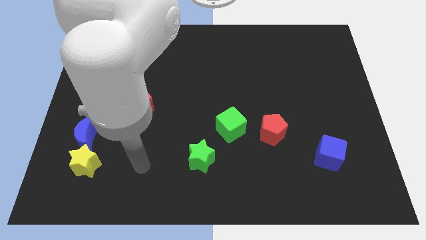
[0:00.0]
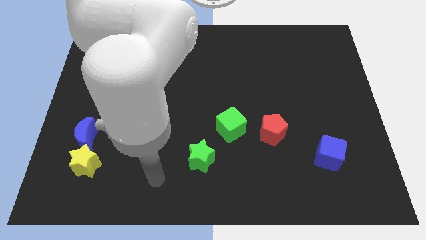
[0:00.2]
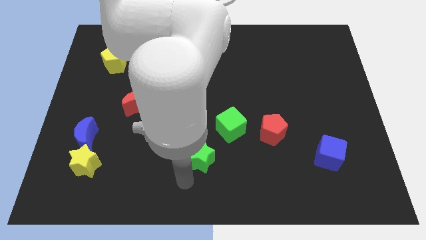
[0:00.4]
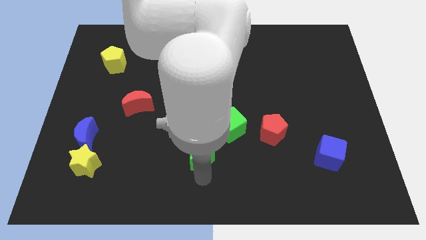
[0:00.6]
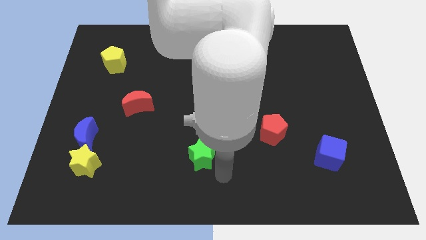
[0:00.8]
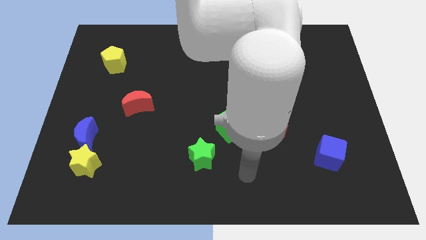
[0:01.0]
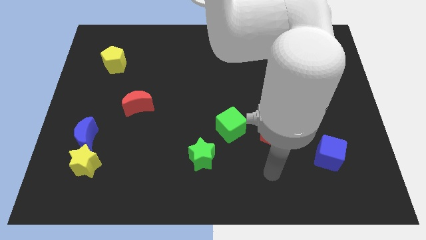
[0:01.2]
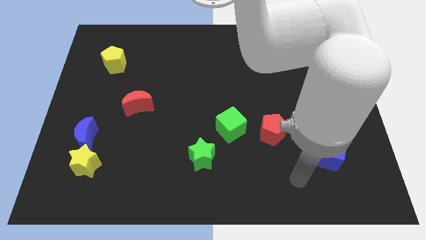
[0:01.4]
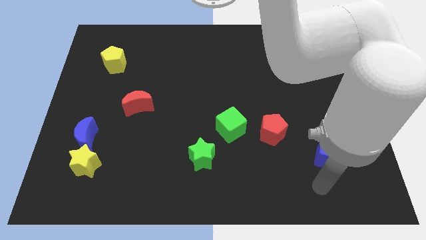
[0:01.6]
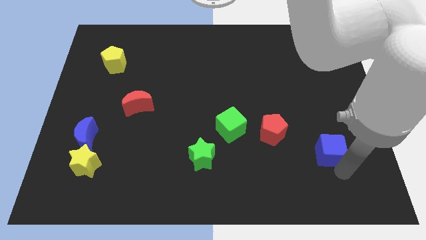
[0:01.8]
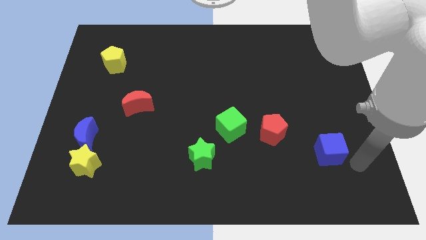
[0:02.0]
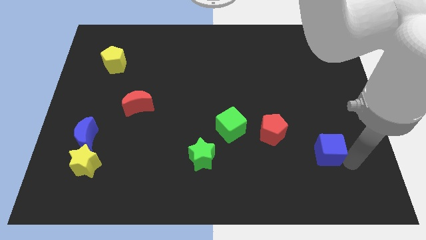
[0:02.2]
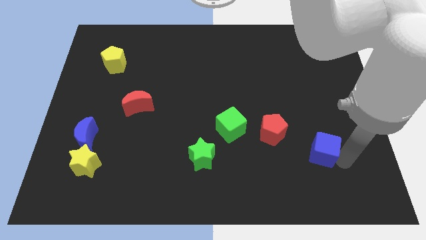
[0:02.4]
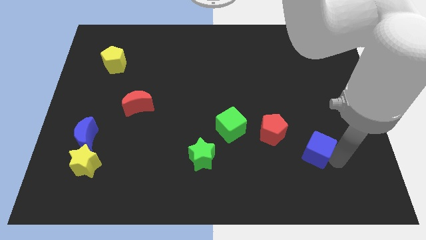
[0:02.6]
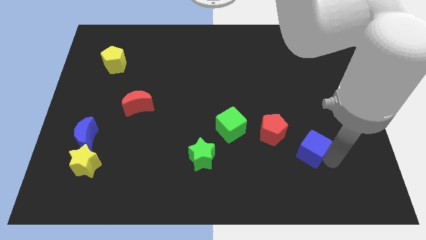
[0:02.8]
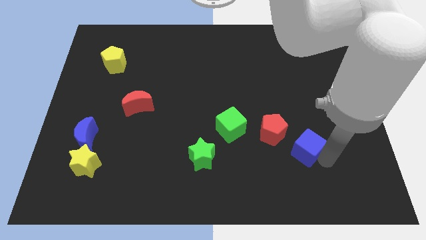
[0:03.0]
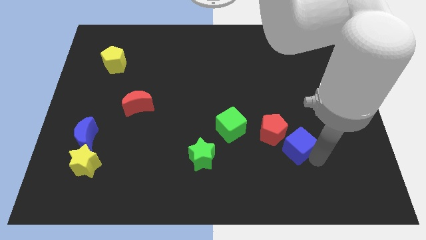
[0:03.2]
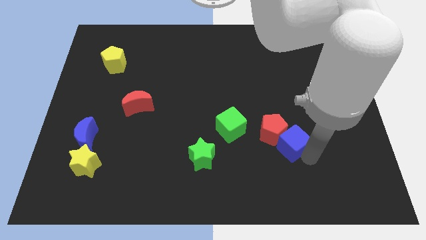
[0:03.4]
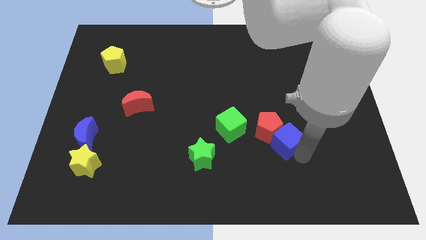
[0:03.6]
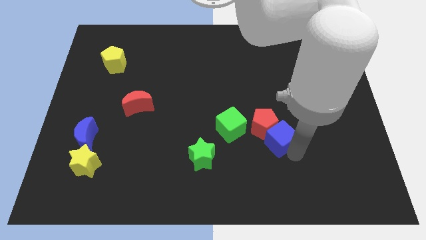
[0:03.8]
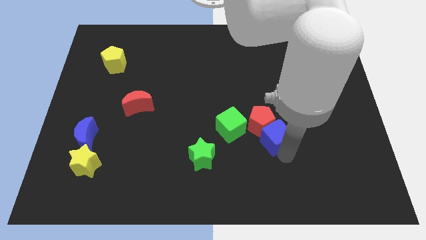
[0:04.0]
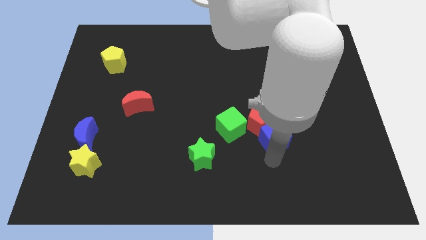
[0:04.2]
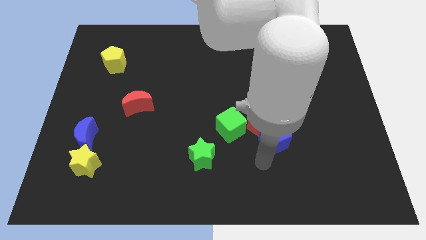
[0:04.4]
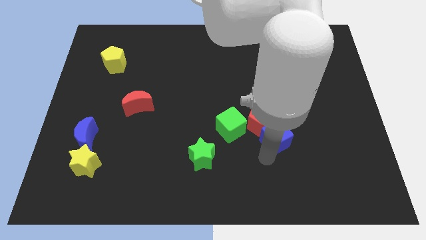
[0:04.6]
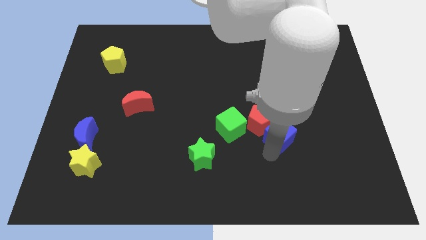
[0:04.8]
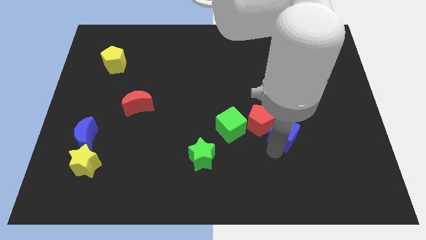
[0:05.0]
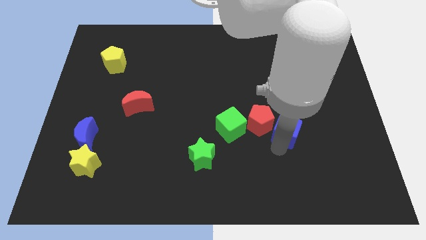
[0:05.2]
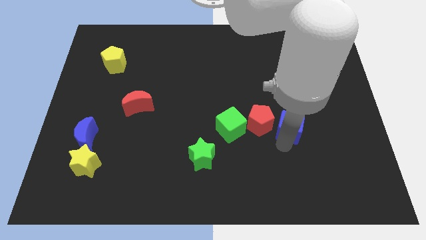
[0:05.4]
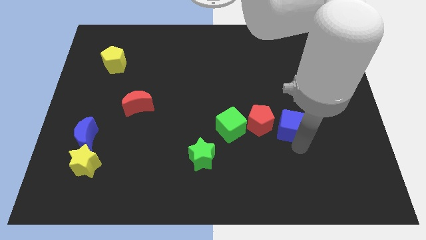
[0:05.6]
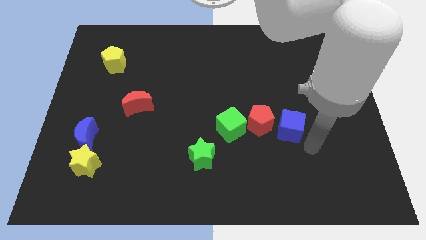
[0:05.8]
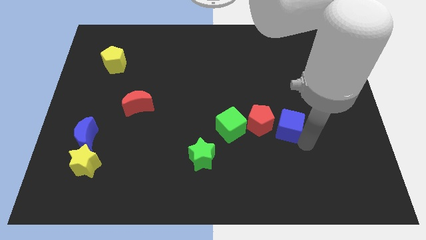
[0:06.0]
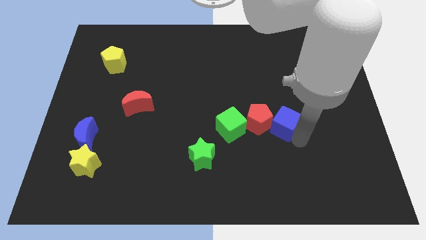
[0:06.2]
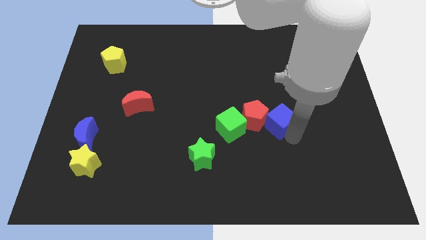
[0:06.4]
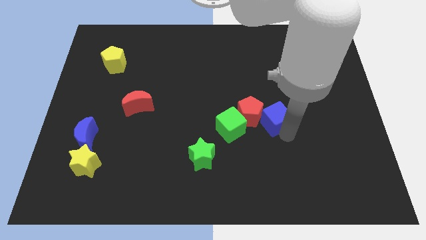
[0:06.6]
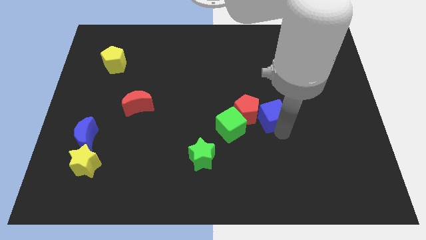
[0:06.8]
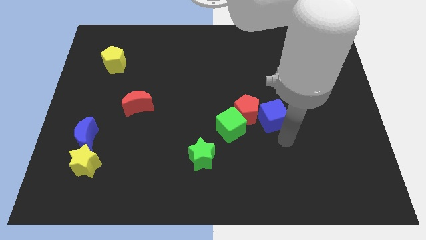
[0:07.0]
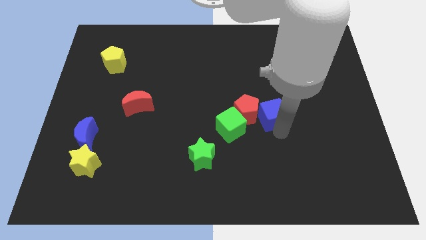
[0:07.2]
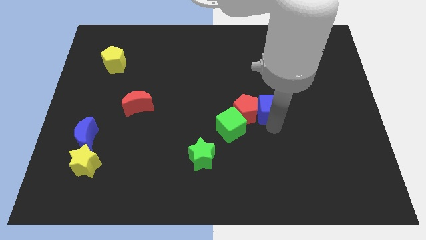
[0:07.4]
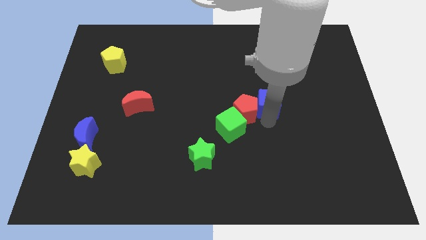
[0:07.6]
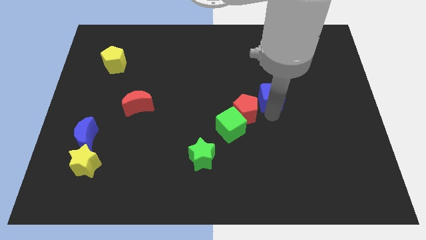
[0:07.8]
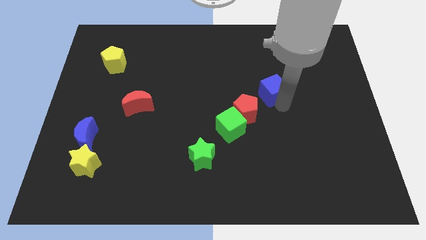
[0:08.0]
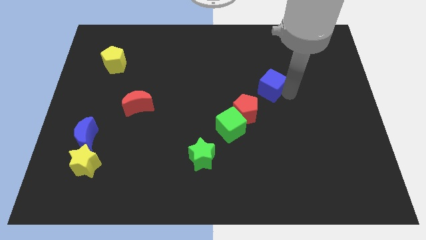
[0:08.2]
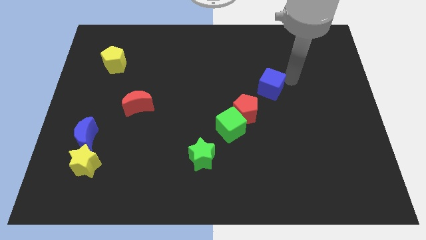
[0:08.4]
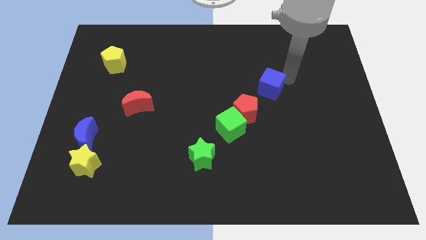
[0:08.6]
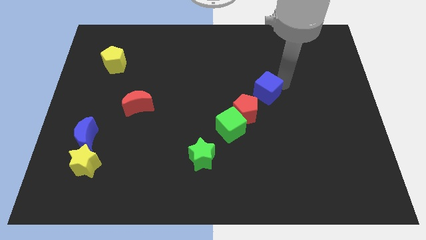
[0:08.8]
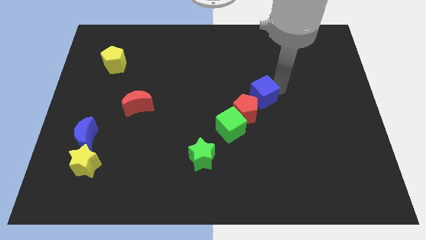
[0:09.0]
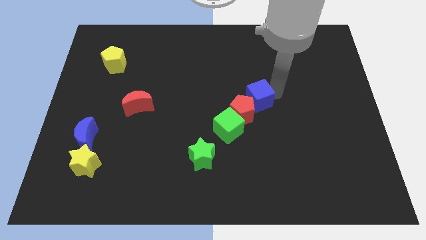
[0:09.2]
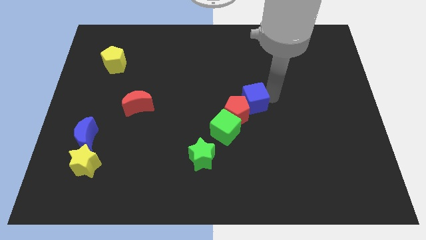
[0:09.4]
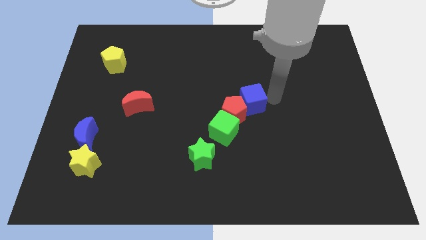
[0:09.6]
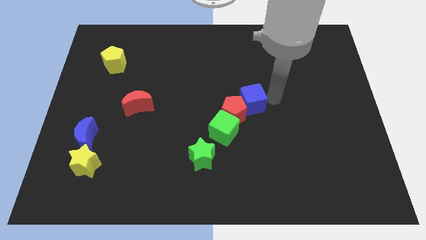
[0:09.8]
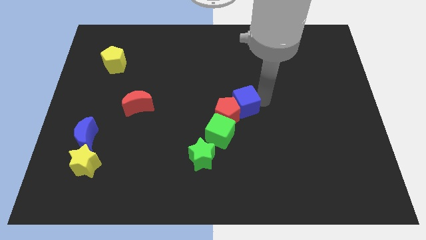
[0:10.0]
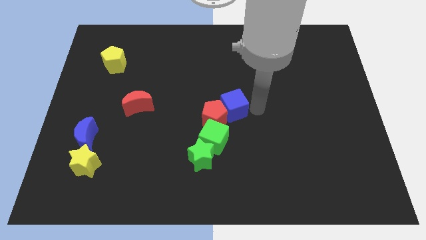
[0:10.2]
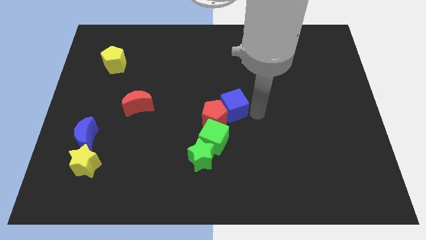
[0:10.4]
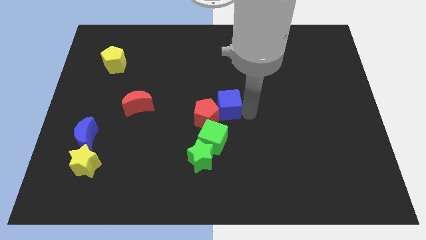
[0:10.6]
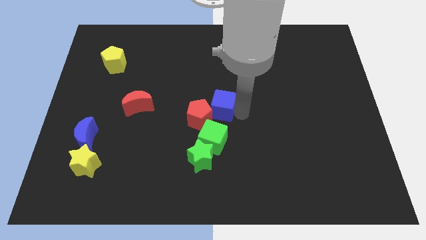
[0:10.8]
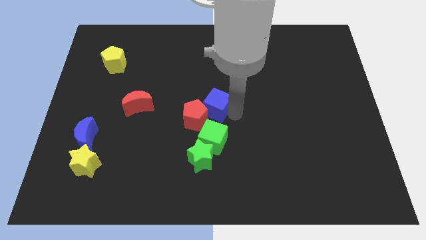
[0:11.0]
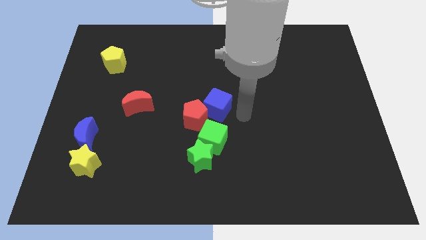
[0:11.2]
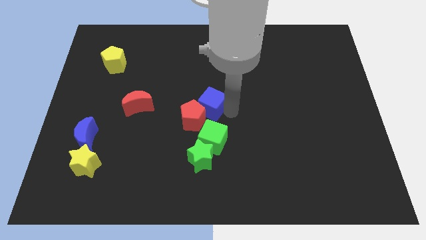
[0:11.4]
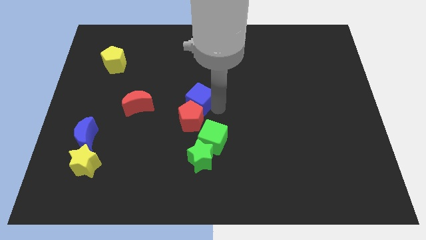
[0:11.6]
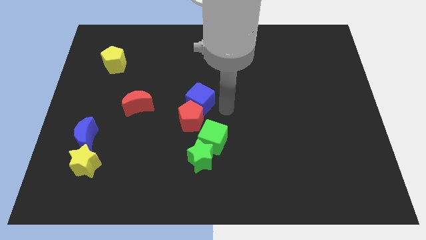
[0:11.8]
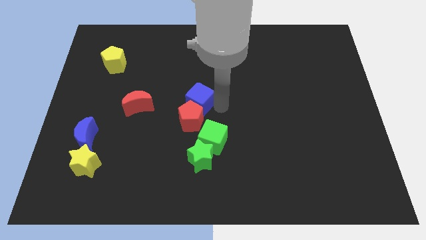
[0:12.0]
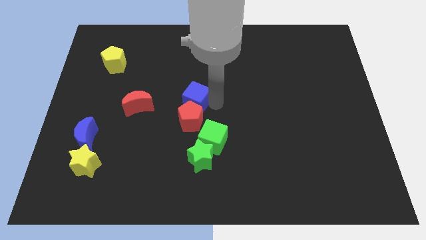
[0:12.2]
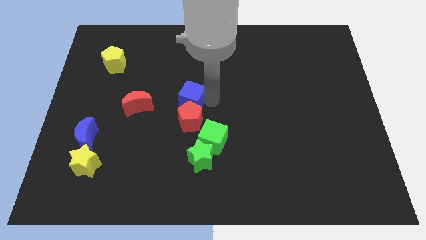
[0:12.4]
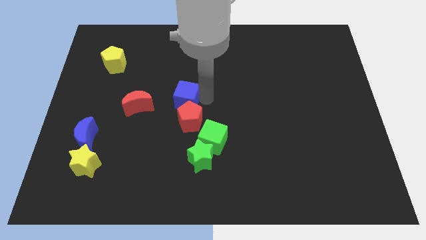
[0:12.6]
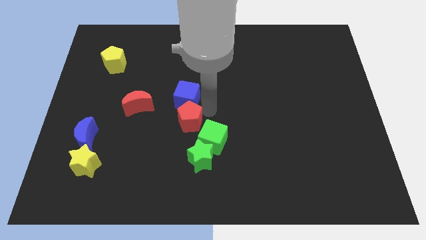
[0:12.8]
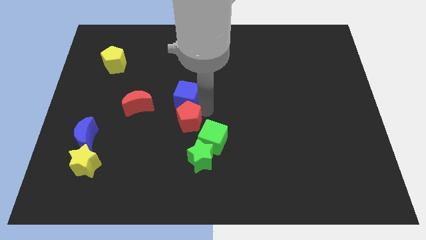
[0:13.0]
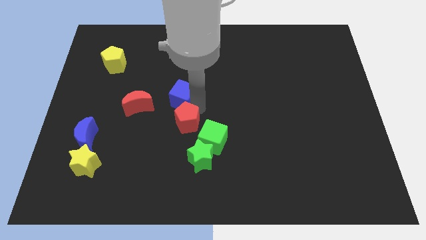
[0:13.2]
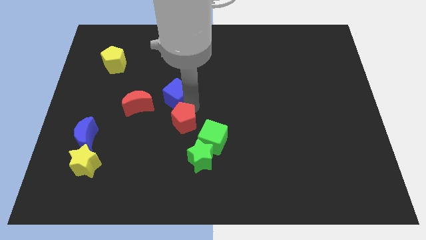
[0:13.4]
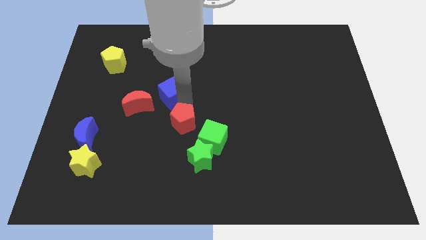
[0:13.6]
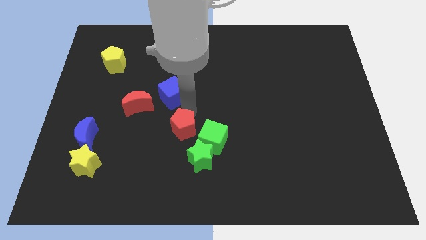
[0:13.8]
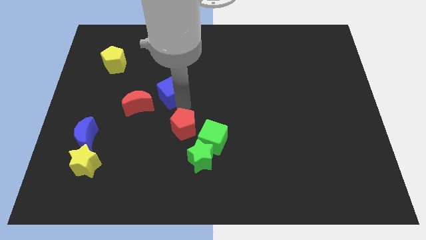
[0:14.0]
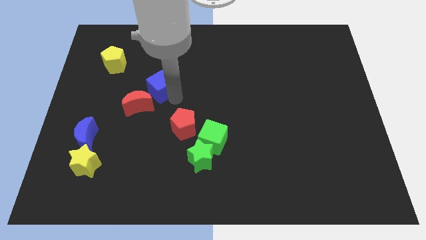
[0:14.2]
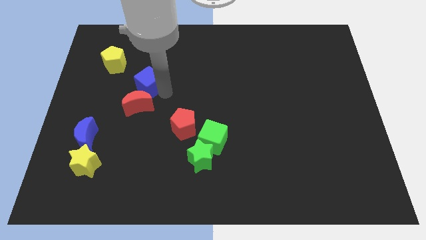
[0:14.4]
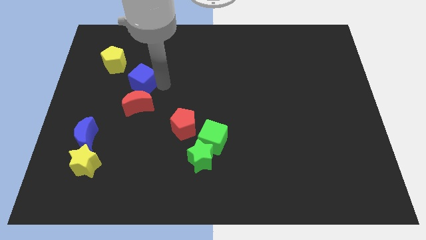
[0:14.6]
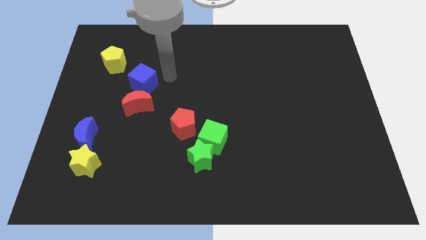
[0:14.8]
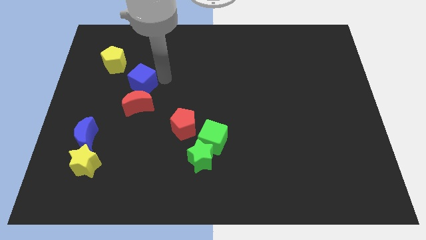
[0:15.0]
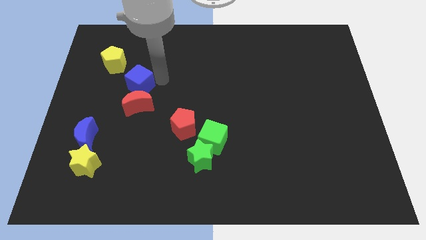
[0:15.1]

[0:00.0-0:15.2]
push the blue cube diagonally up and to the left of the red moon
